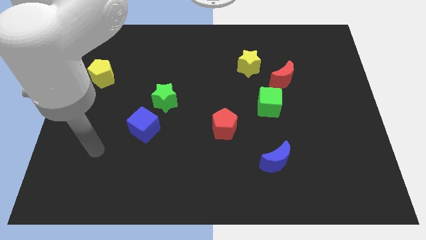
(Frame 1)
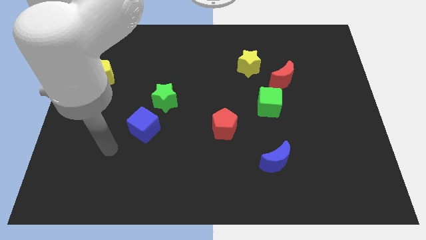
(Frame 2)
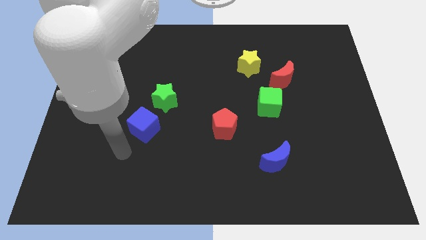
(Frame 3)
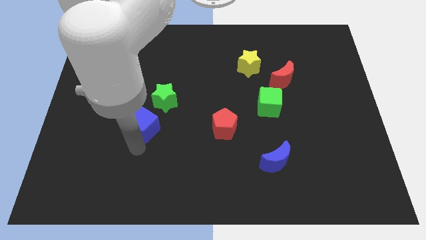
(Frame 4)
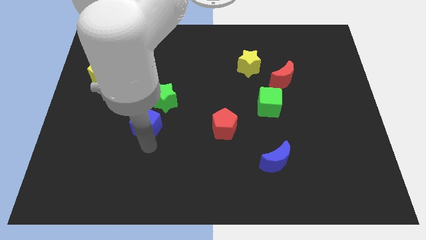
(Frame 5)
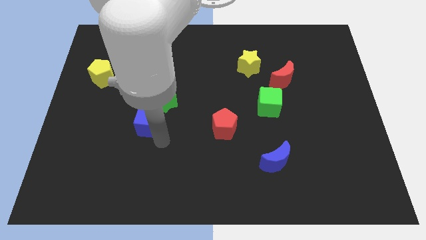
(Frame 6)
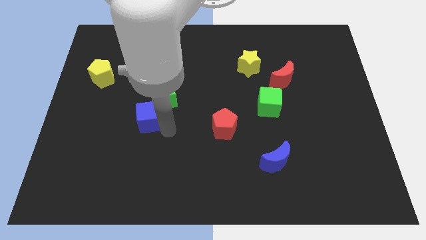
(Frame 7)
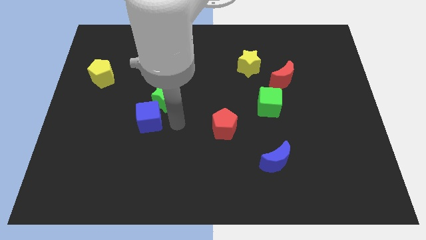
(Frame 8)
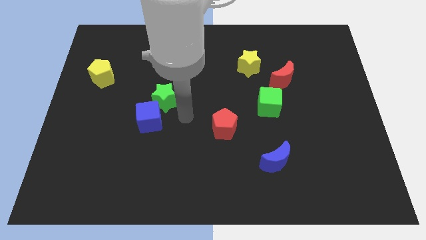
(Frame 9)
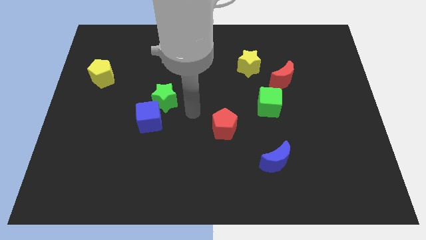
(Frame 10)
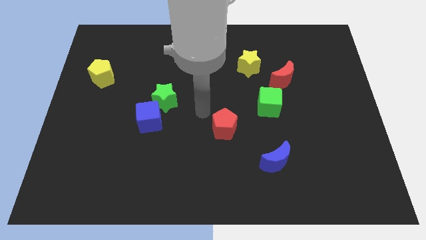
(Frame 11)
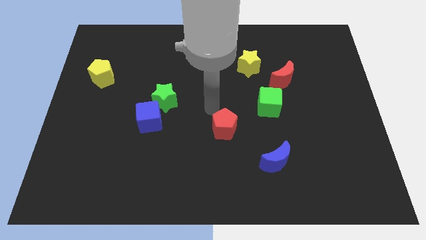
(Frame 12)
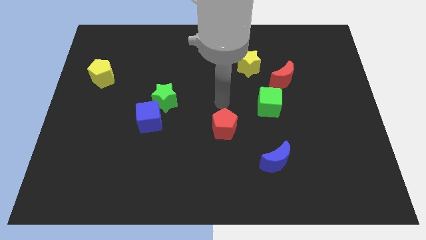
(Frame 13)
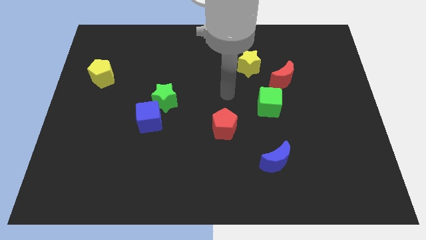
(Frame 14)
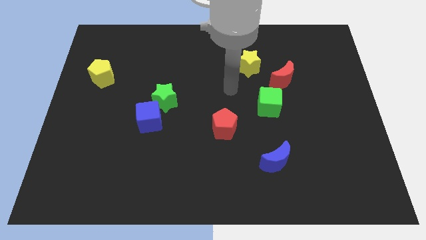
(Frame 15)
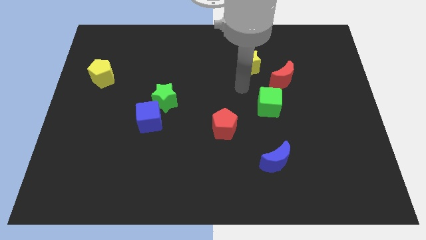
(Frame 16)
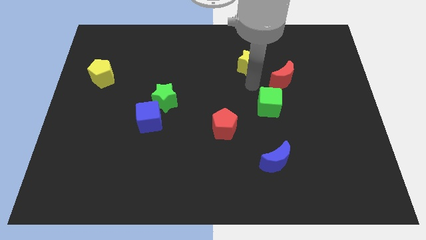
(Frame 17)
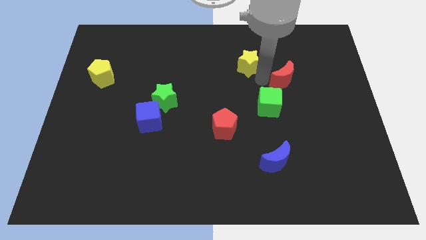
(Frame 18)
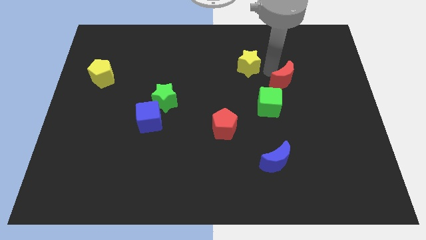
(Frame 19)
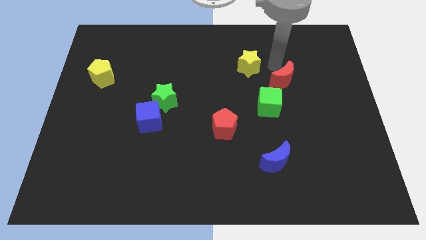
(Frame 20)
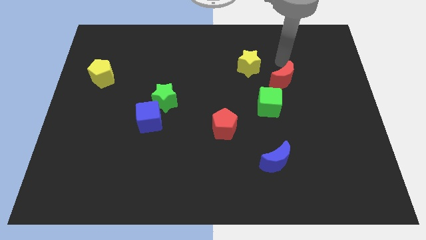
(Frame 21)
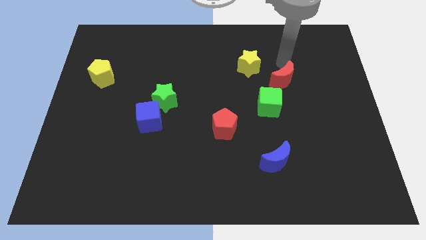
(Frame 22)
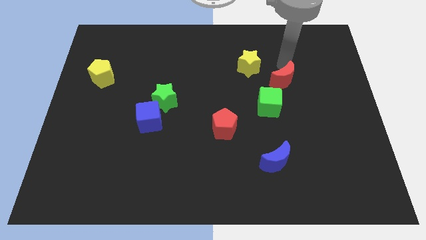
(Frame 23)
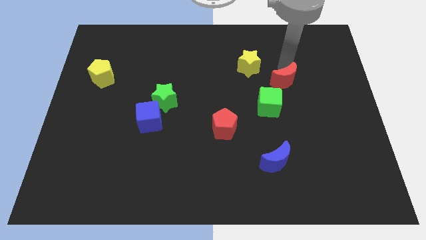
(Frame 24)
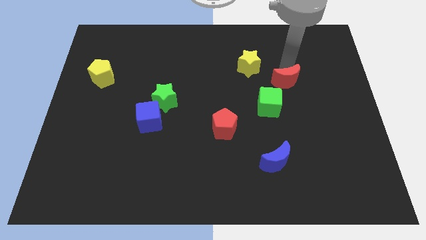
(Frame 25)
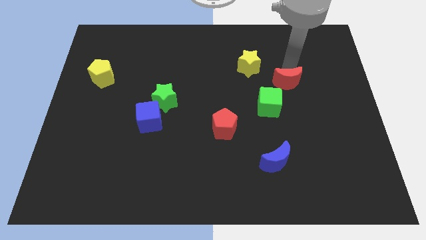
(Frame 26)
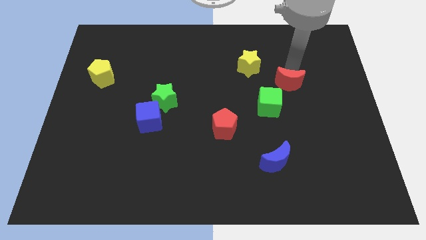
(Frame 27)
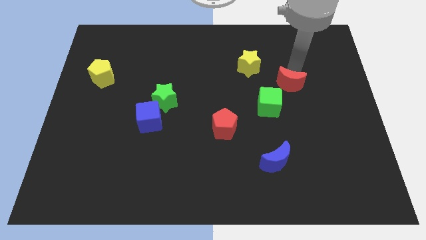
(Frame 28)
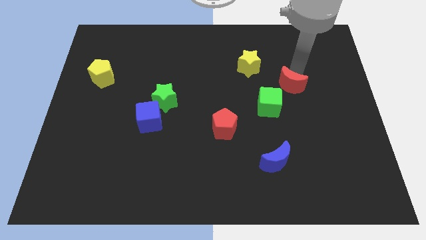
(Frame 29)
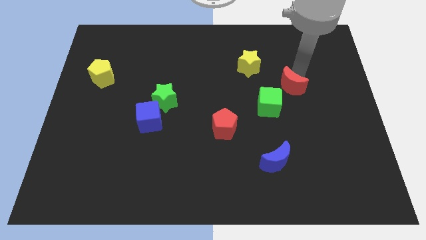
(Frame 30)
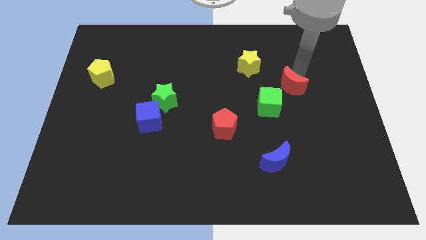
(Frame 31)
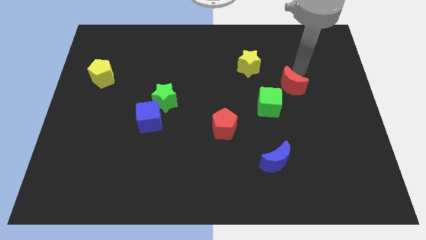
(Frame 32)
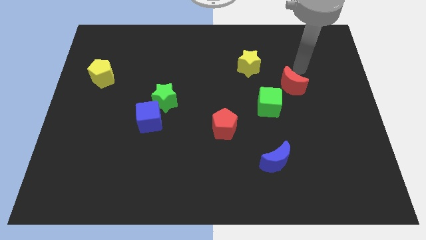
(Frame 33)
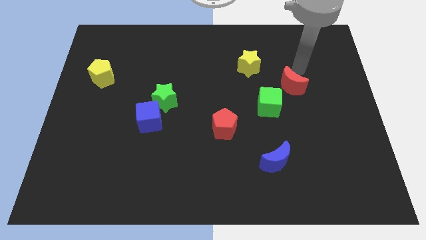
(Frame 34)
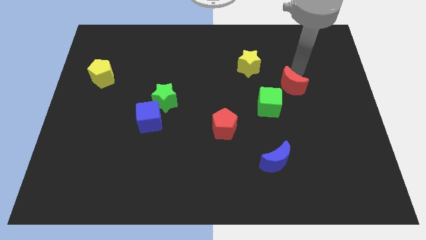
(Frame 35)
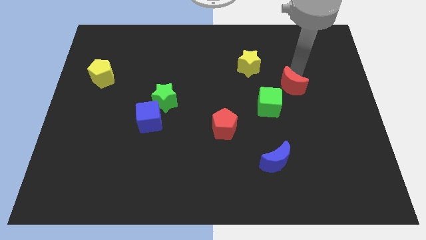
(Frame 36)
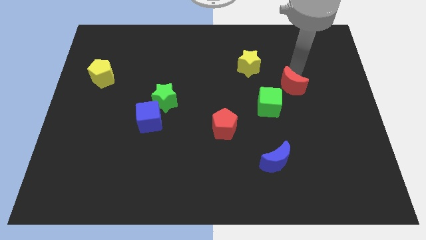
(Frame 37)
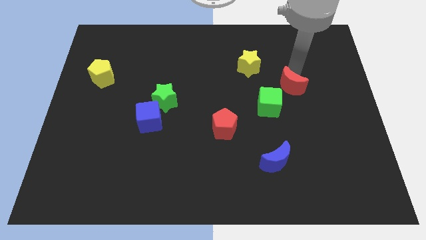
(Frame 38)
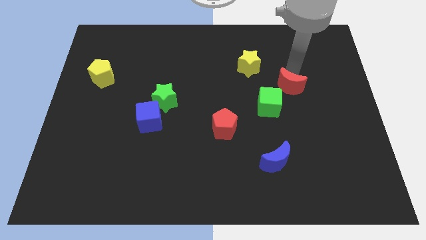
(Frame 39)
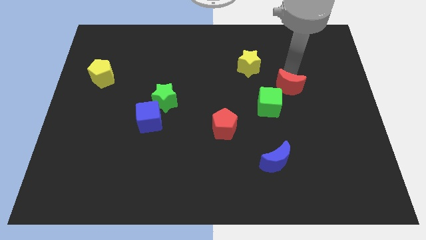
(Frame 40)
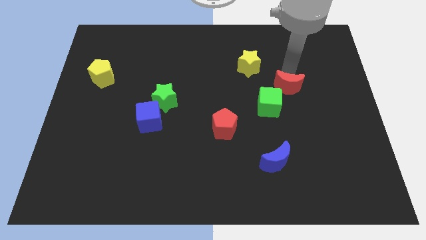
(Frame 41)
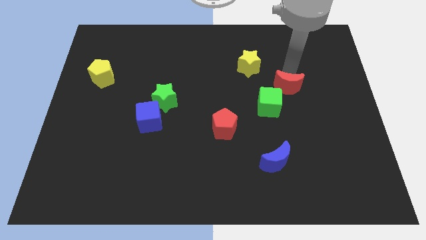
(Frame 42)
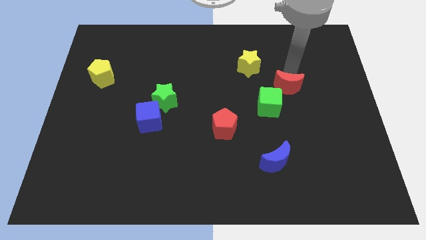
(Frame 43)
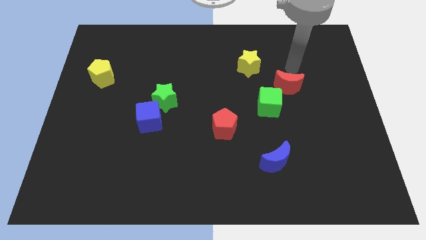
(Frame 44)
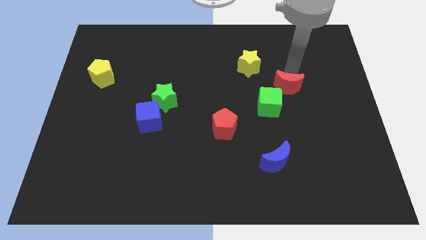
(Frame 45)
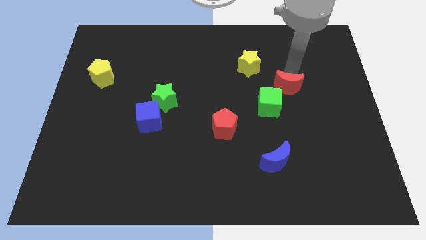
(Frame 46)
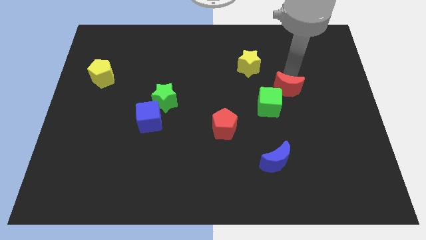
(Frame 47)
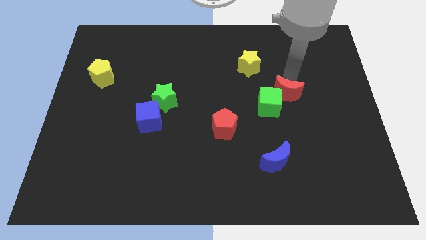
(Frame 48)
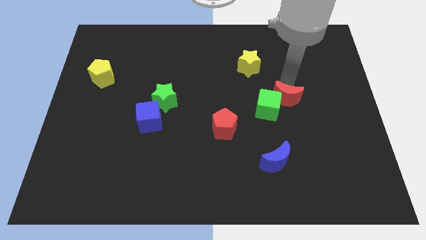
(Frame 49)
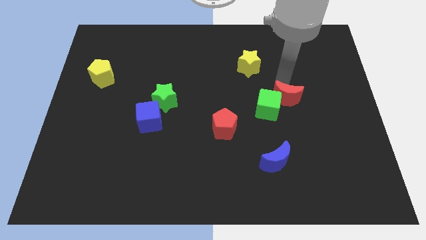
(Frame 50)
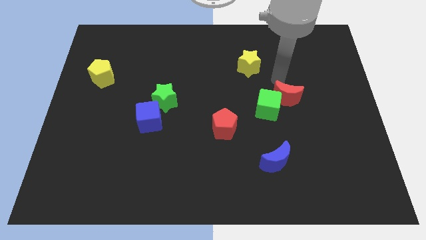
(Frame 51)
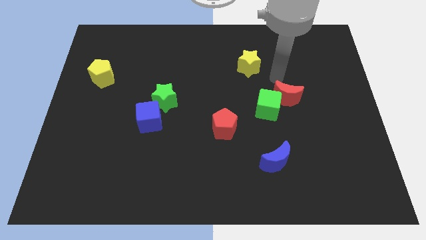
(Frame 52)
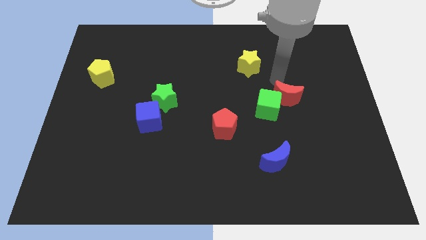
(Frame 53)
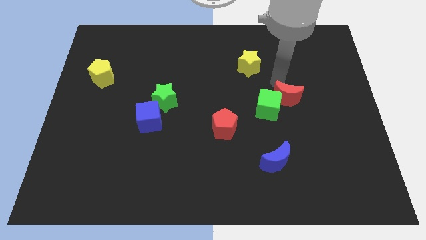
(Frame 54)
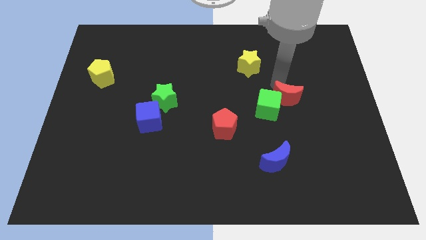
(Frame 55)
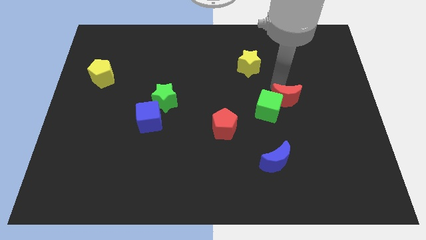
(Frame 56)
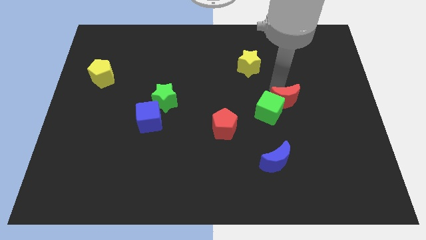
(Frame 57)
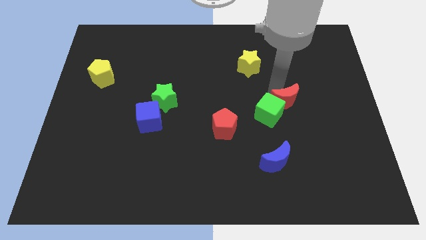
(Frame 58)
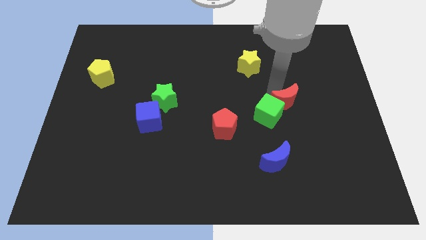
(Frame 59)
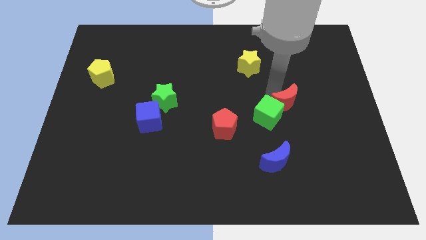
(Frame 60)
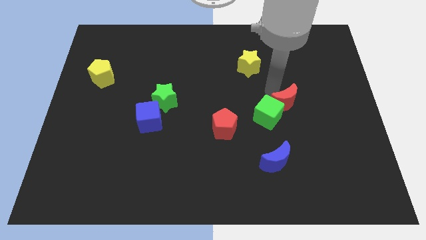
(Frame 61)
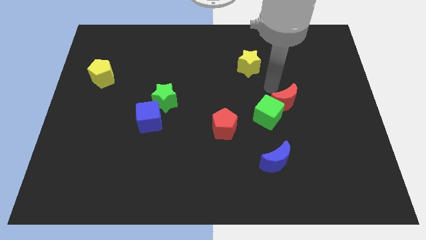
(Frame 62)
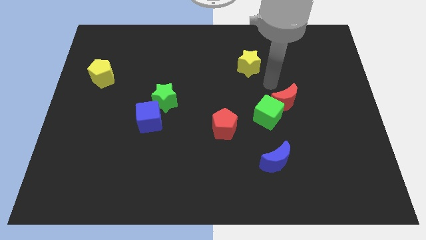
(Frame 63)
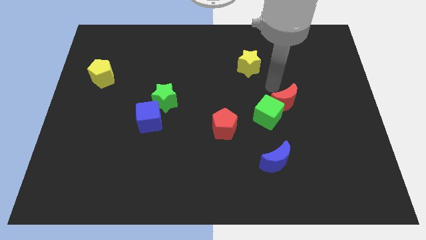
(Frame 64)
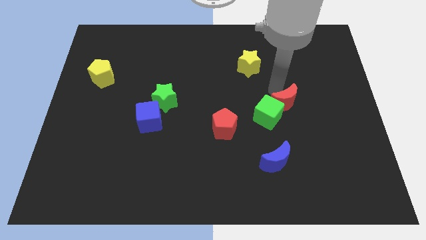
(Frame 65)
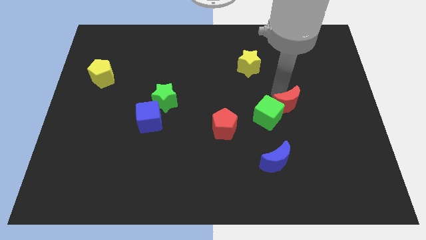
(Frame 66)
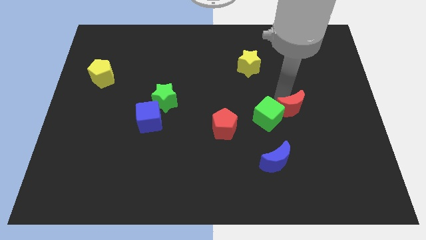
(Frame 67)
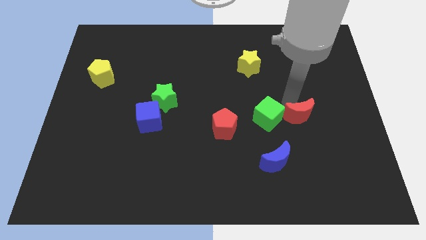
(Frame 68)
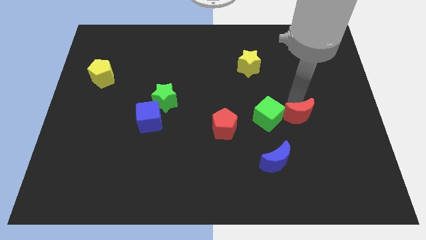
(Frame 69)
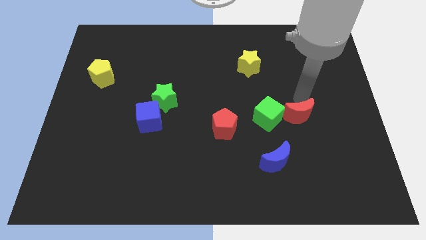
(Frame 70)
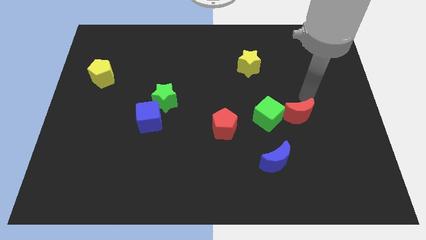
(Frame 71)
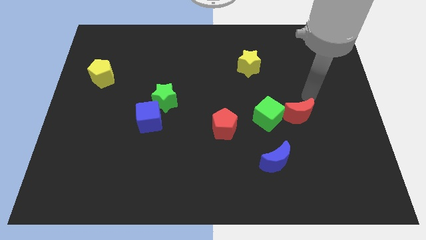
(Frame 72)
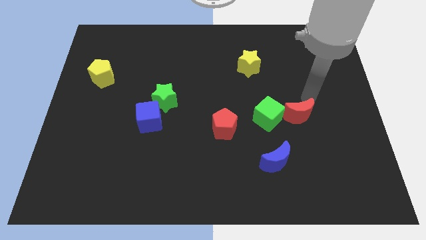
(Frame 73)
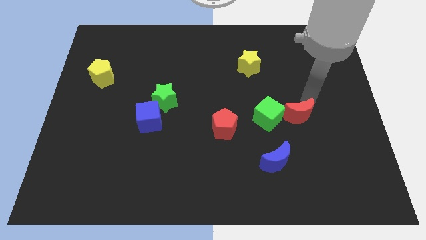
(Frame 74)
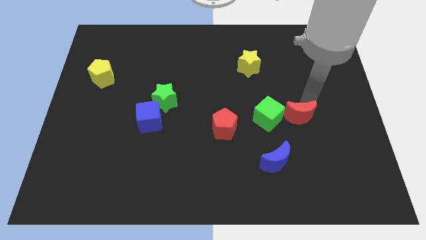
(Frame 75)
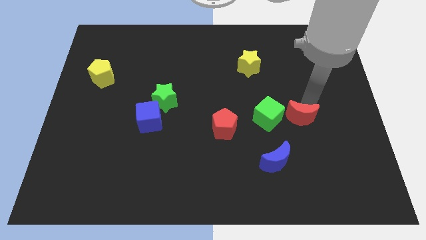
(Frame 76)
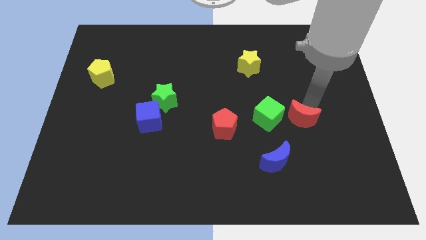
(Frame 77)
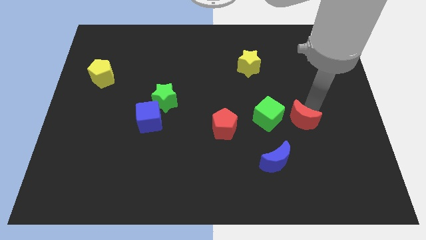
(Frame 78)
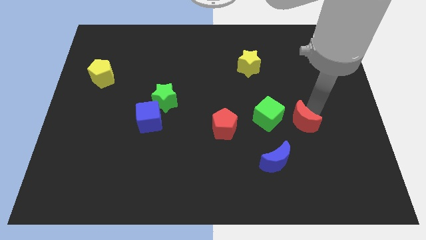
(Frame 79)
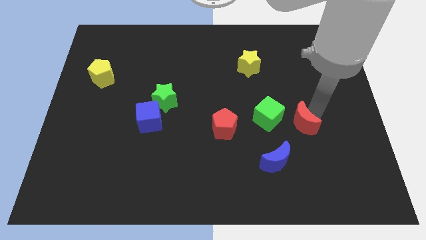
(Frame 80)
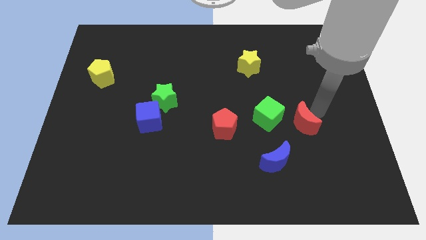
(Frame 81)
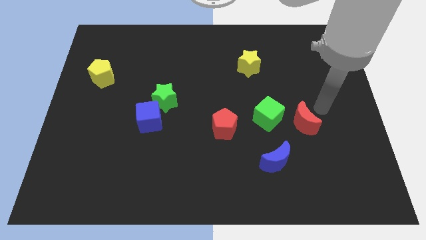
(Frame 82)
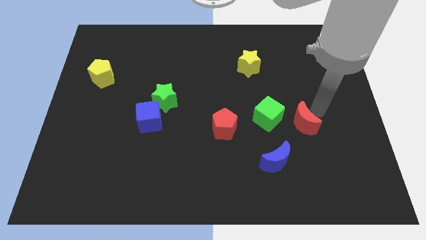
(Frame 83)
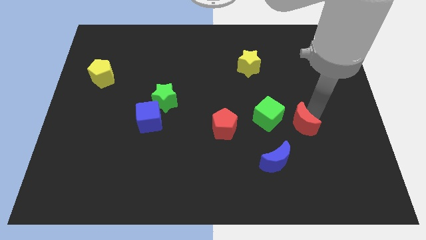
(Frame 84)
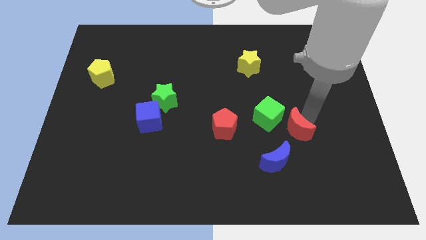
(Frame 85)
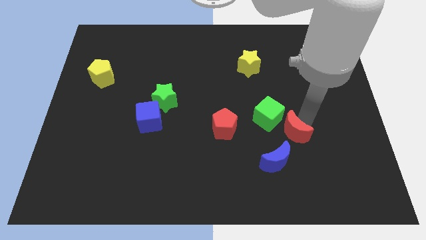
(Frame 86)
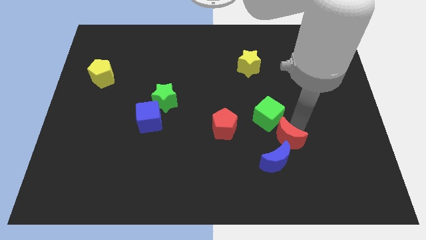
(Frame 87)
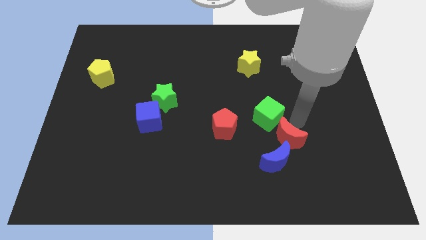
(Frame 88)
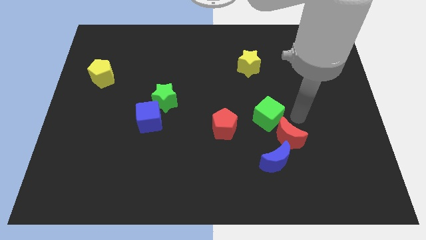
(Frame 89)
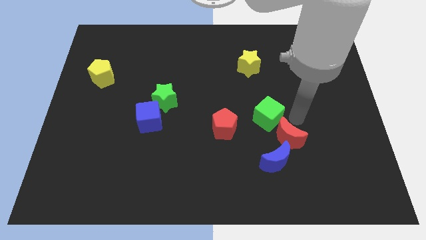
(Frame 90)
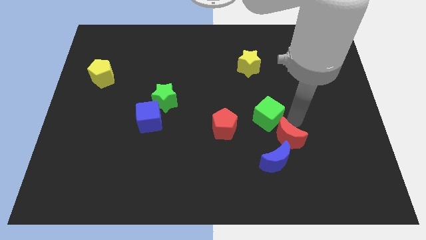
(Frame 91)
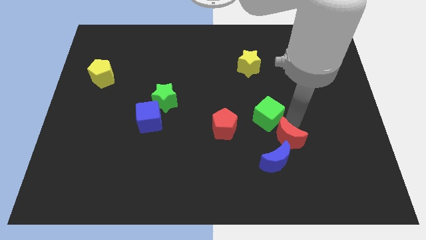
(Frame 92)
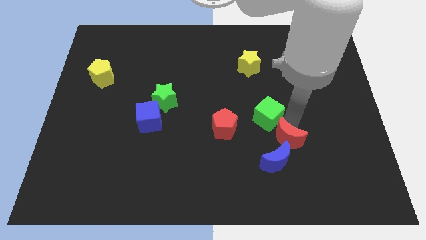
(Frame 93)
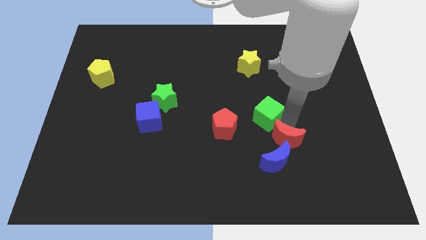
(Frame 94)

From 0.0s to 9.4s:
put the red moon close to the blue moon
